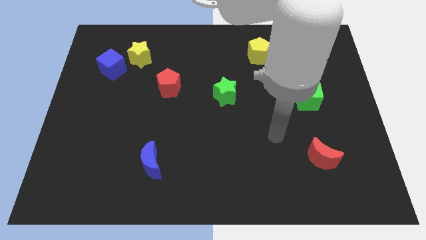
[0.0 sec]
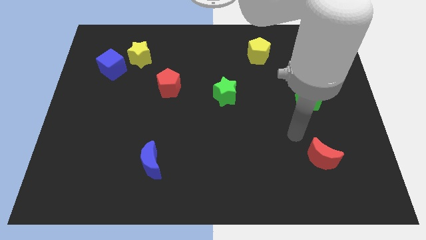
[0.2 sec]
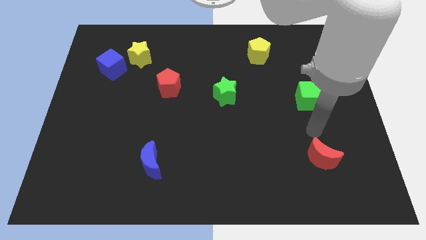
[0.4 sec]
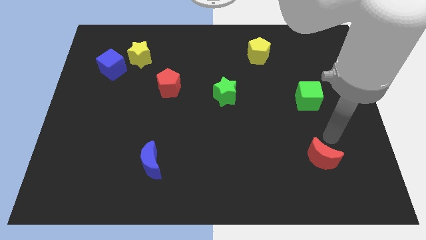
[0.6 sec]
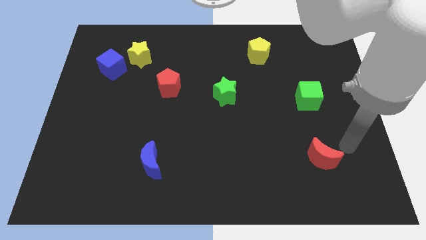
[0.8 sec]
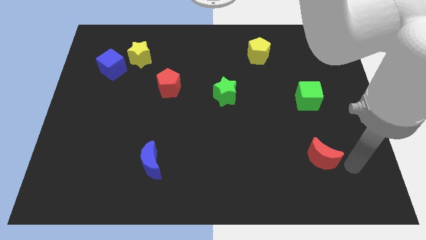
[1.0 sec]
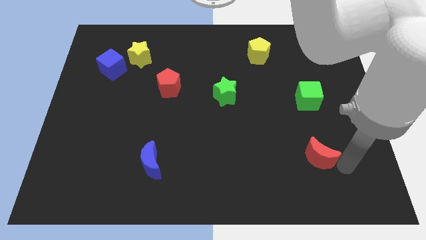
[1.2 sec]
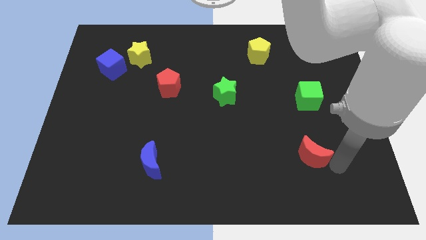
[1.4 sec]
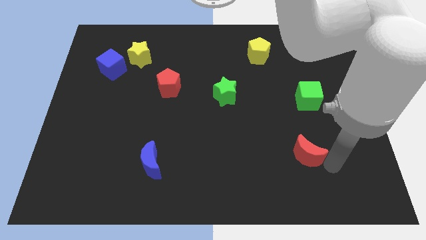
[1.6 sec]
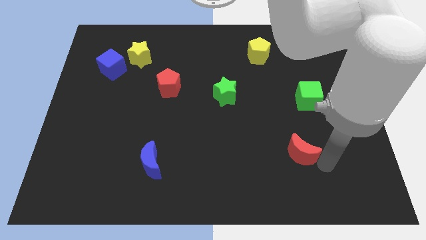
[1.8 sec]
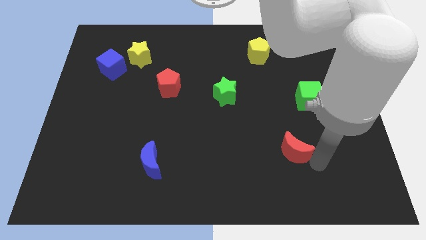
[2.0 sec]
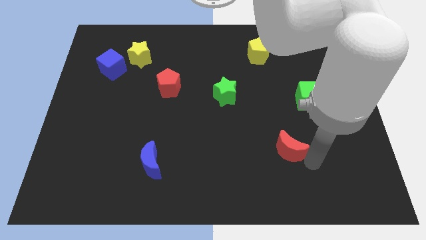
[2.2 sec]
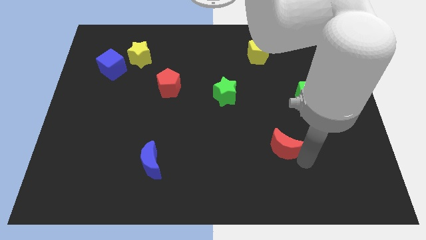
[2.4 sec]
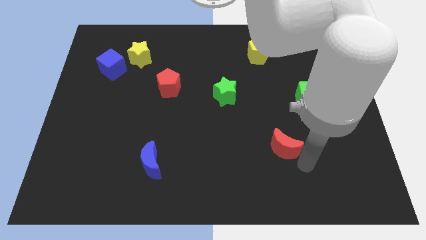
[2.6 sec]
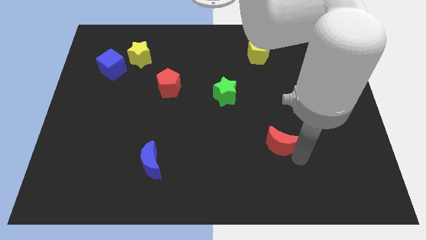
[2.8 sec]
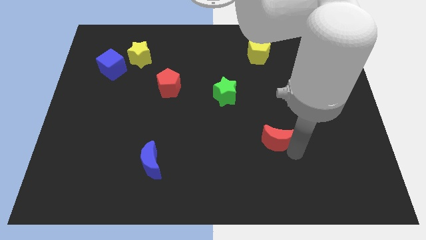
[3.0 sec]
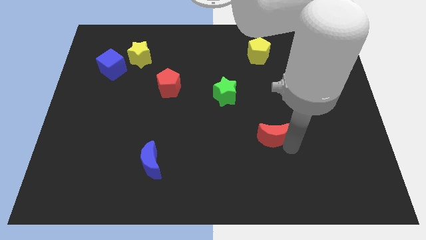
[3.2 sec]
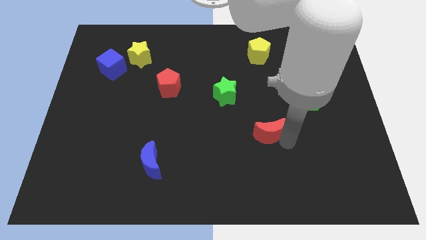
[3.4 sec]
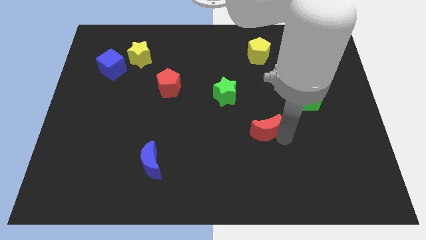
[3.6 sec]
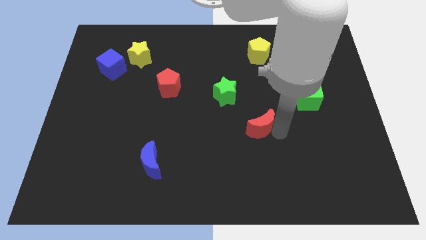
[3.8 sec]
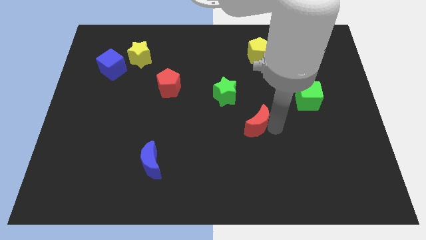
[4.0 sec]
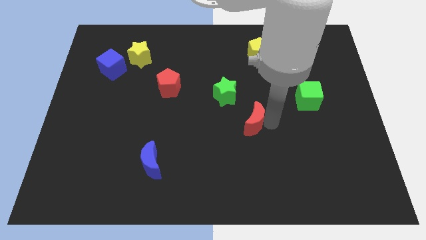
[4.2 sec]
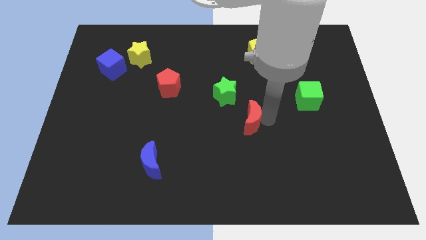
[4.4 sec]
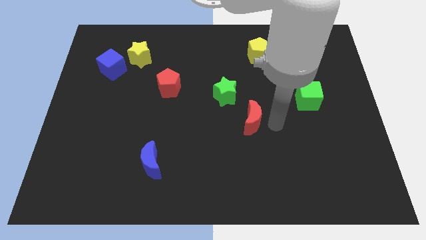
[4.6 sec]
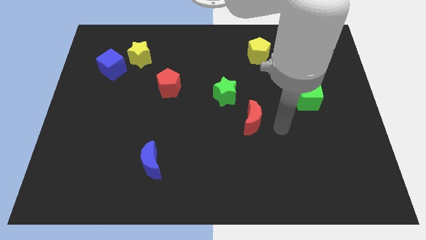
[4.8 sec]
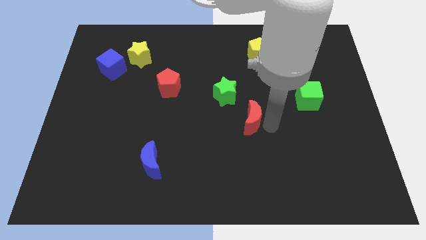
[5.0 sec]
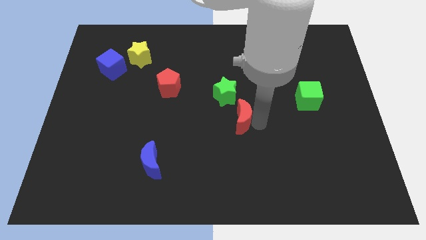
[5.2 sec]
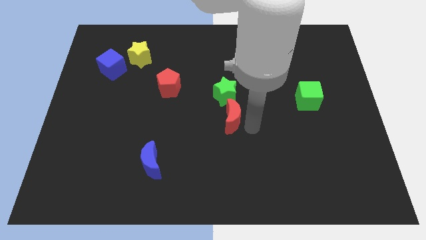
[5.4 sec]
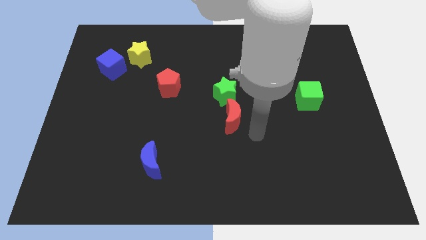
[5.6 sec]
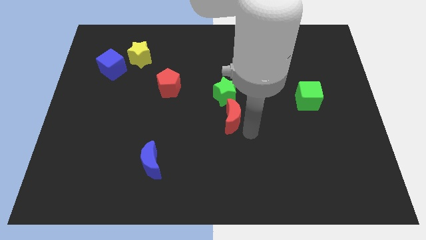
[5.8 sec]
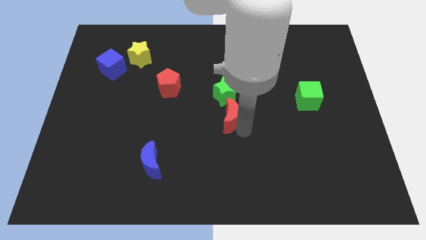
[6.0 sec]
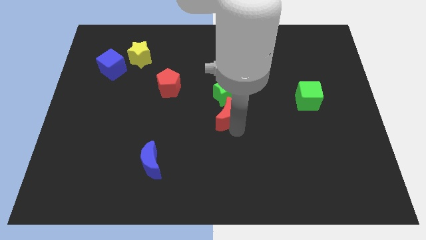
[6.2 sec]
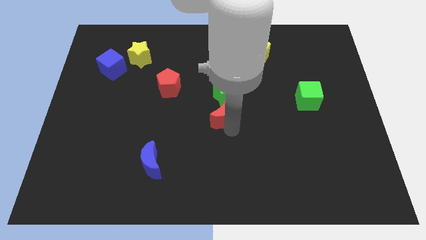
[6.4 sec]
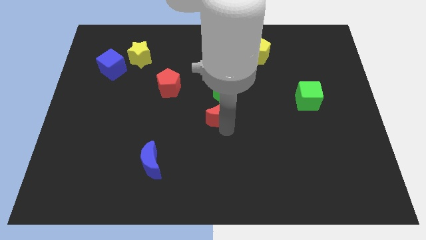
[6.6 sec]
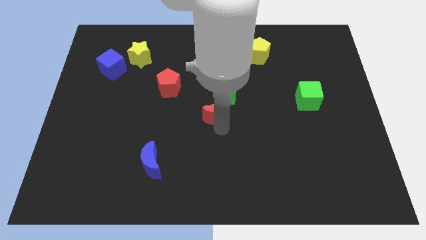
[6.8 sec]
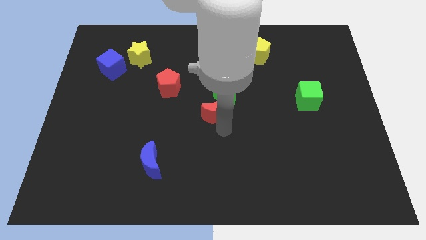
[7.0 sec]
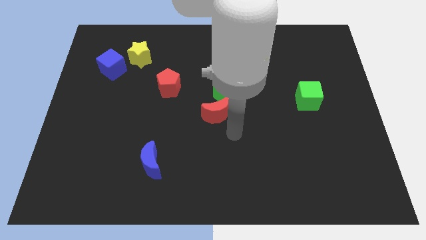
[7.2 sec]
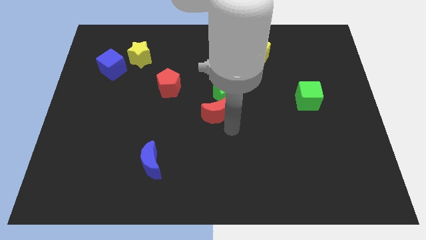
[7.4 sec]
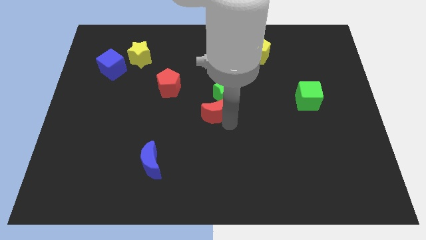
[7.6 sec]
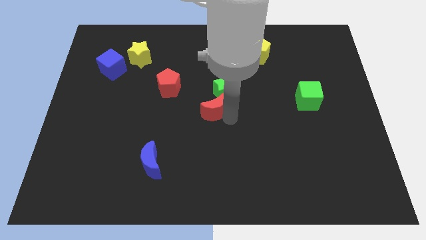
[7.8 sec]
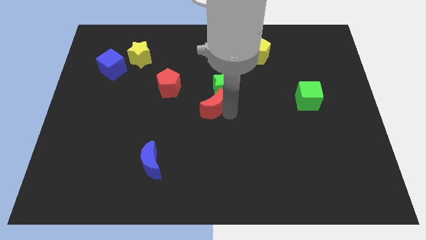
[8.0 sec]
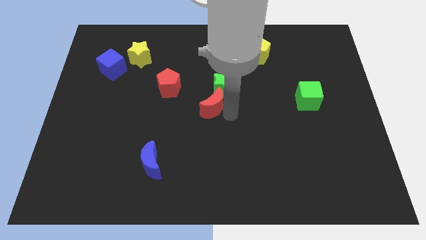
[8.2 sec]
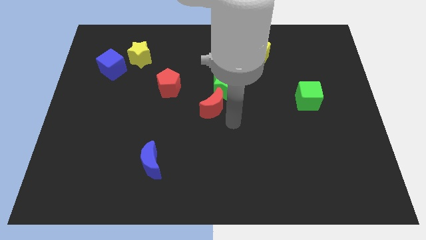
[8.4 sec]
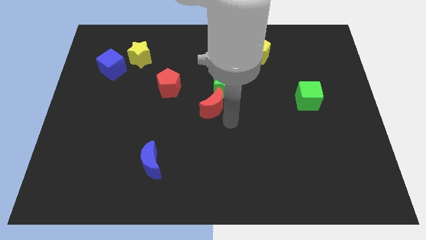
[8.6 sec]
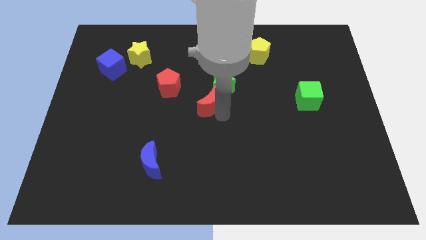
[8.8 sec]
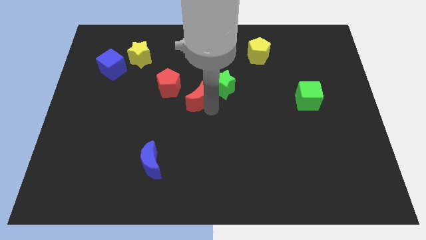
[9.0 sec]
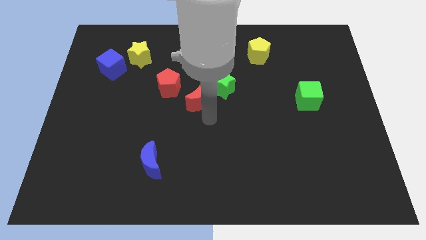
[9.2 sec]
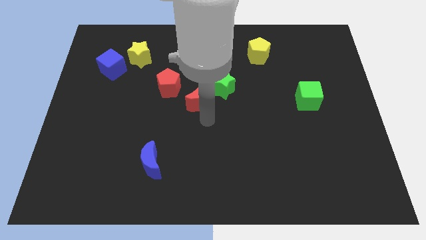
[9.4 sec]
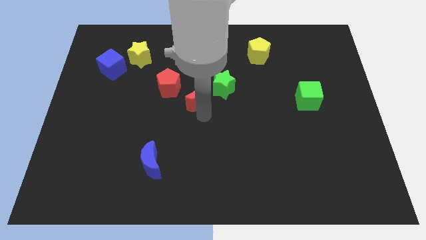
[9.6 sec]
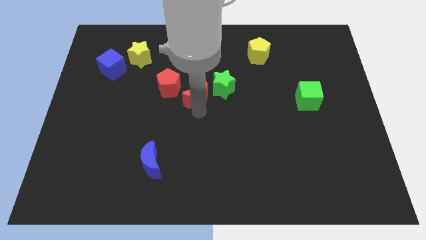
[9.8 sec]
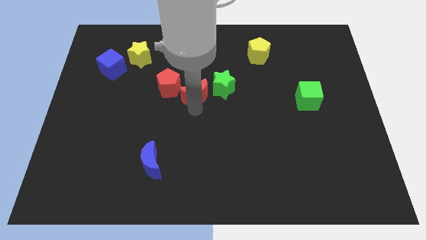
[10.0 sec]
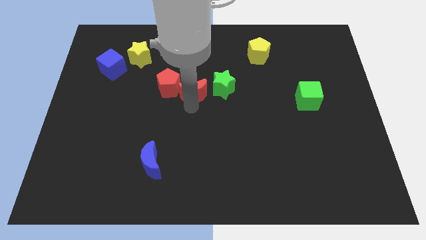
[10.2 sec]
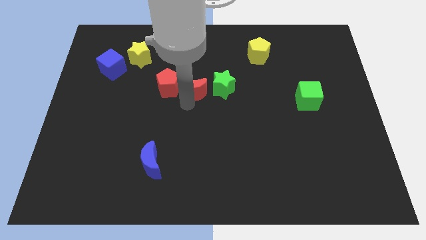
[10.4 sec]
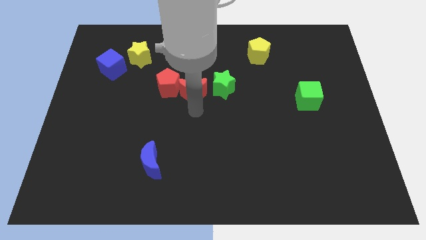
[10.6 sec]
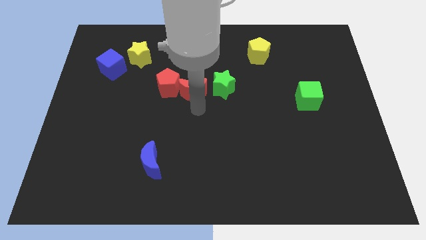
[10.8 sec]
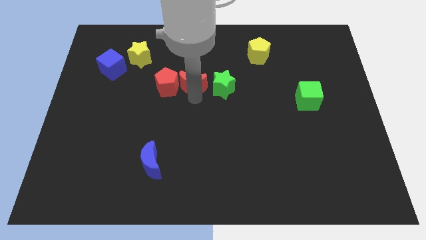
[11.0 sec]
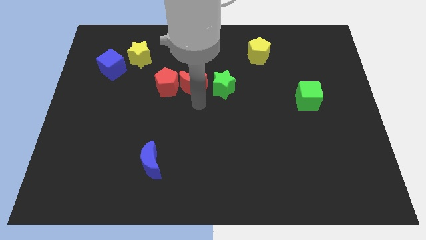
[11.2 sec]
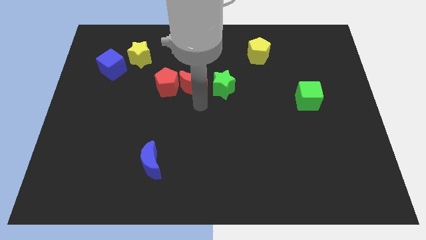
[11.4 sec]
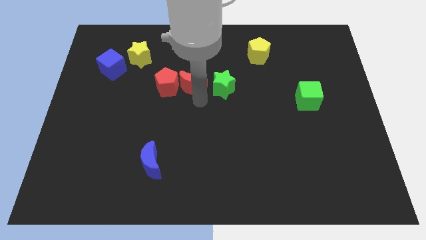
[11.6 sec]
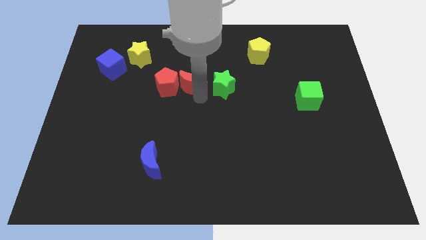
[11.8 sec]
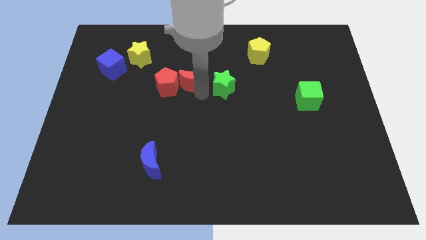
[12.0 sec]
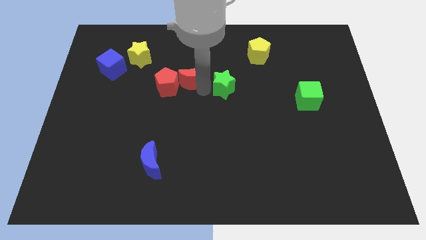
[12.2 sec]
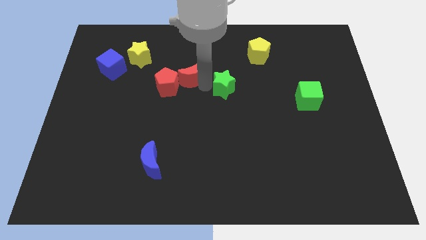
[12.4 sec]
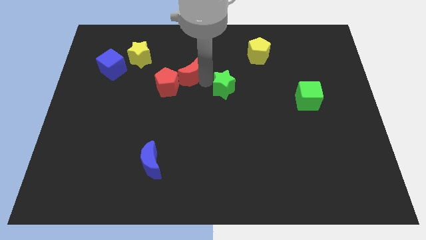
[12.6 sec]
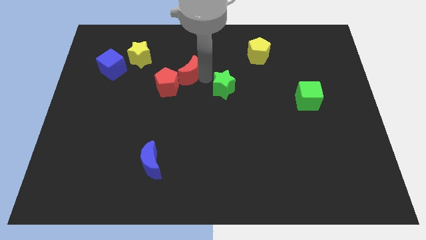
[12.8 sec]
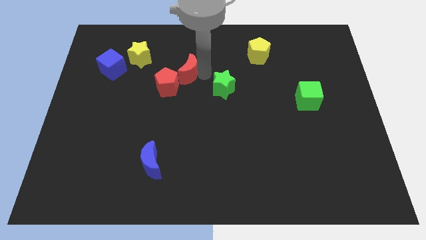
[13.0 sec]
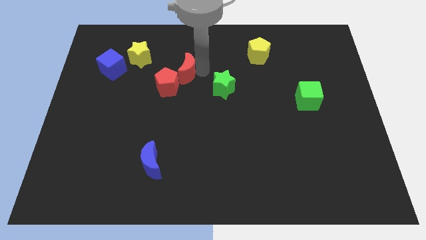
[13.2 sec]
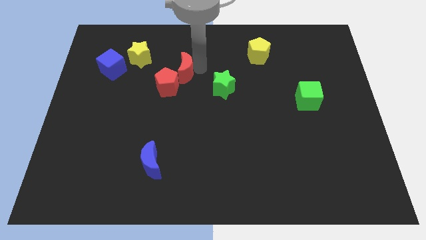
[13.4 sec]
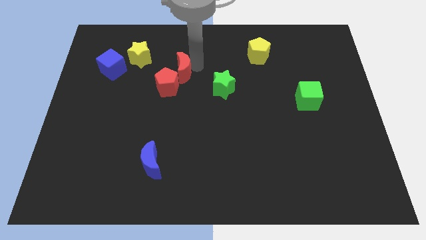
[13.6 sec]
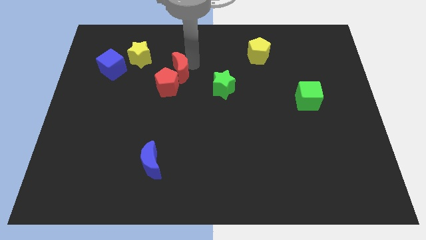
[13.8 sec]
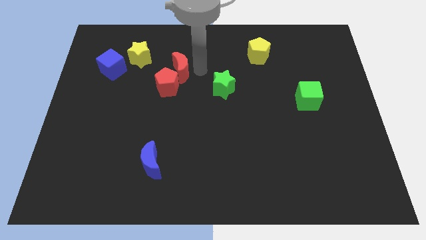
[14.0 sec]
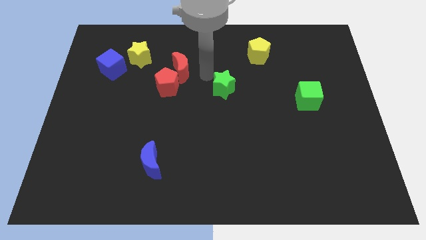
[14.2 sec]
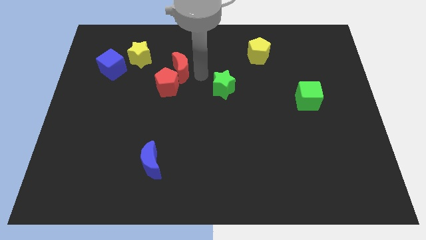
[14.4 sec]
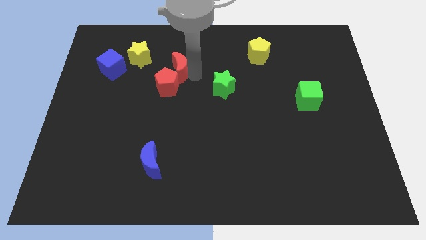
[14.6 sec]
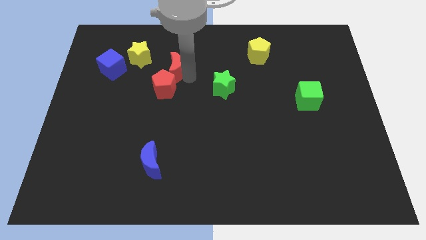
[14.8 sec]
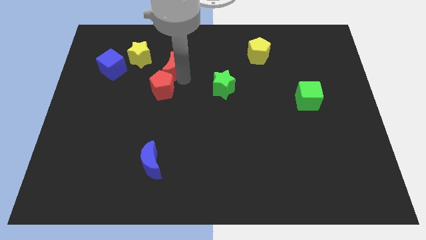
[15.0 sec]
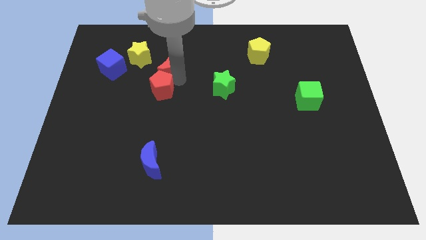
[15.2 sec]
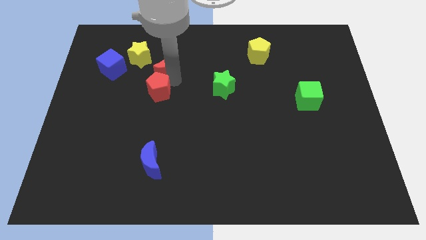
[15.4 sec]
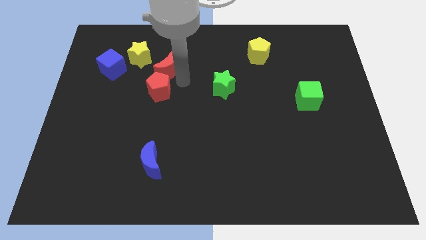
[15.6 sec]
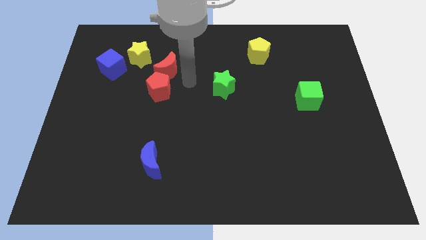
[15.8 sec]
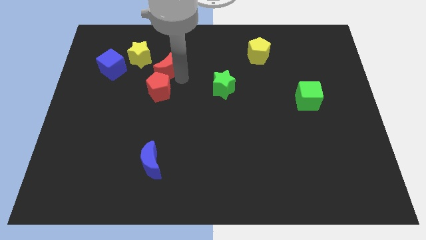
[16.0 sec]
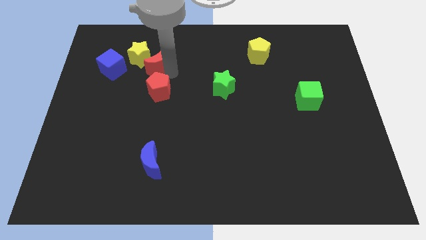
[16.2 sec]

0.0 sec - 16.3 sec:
slide the red moon next to the yellow star
